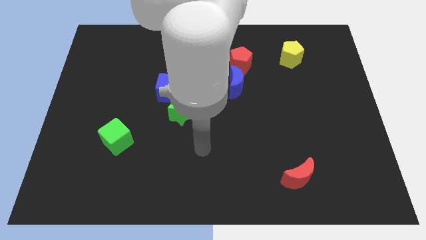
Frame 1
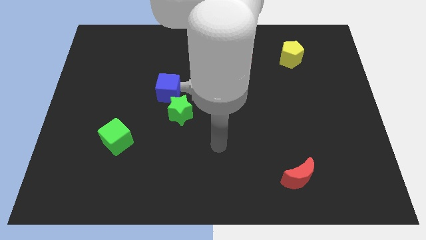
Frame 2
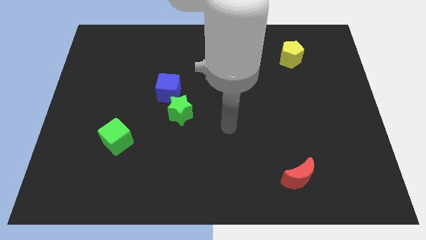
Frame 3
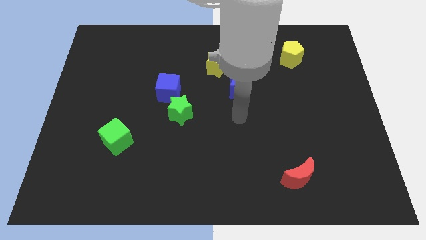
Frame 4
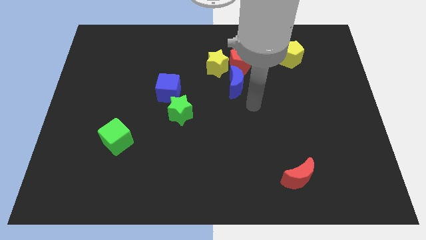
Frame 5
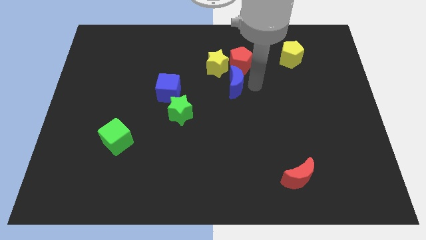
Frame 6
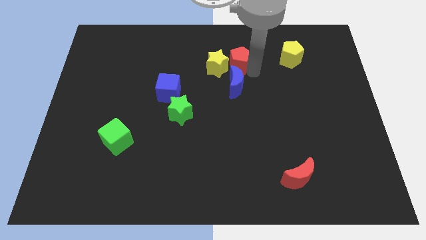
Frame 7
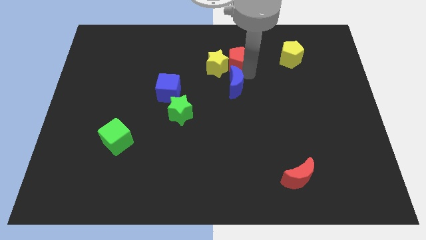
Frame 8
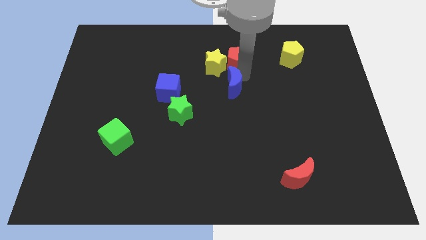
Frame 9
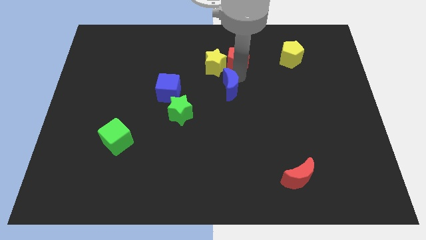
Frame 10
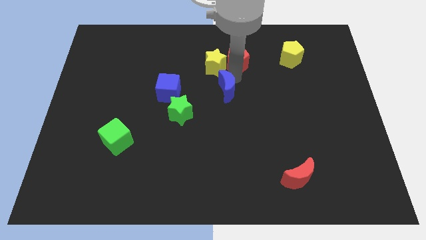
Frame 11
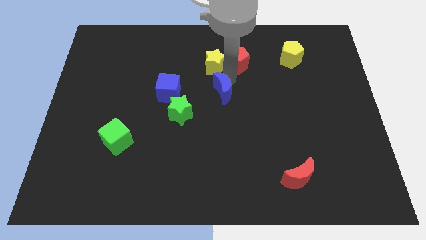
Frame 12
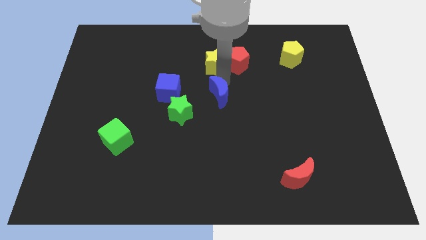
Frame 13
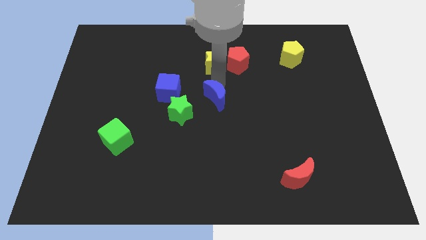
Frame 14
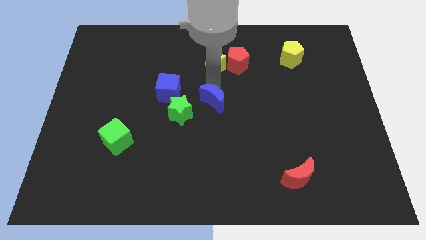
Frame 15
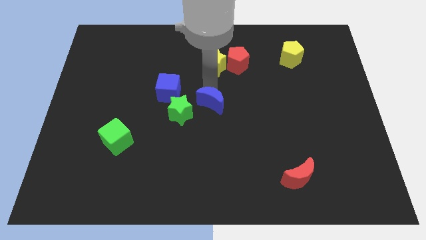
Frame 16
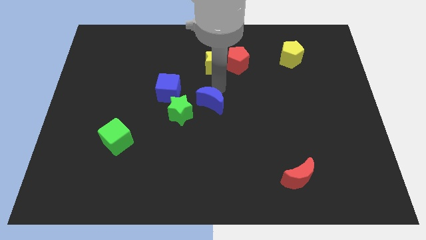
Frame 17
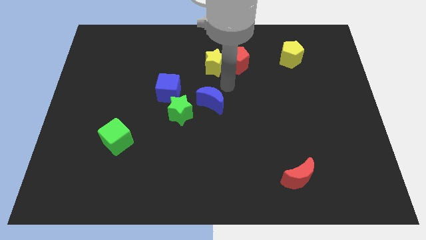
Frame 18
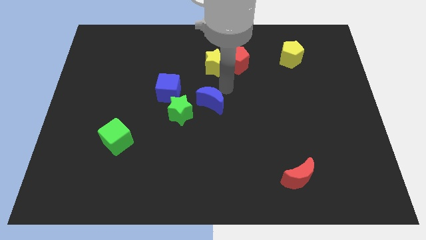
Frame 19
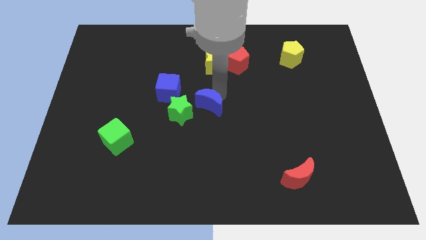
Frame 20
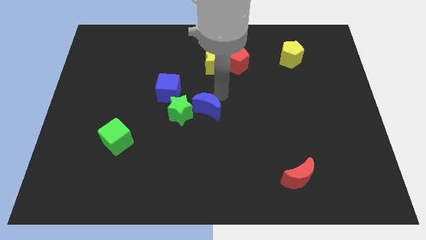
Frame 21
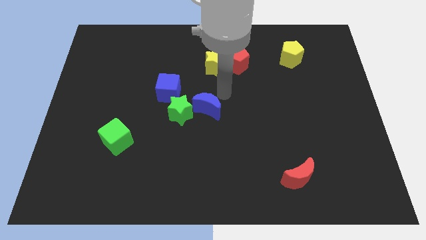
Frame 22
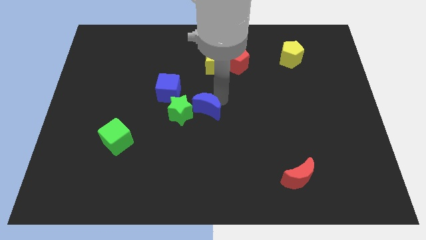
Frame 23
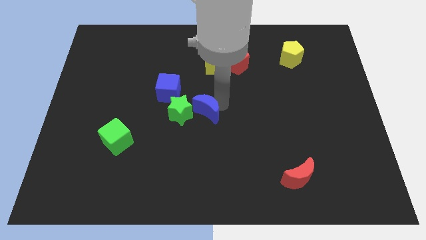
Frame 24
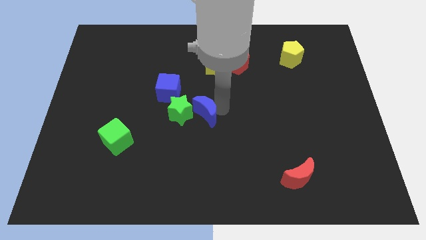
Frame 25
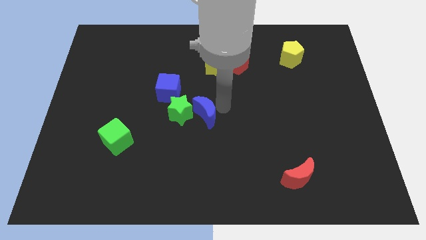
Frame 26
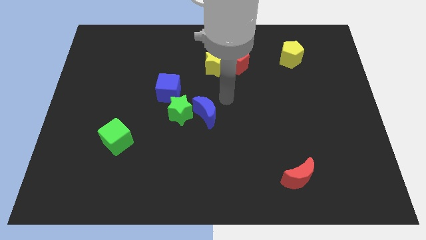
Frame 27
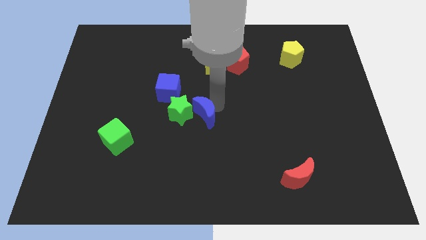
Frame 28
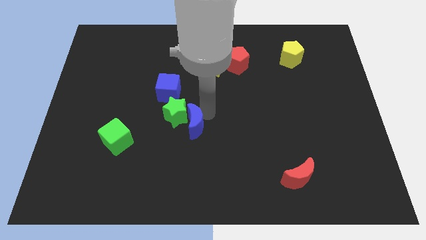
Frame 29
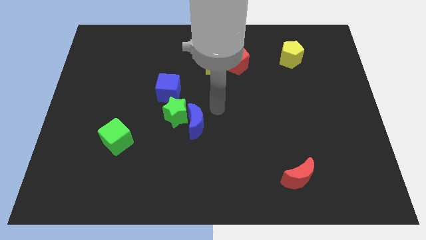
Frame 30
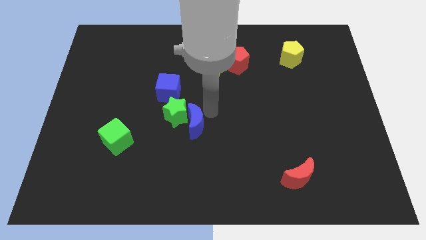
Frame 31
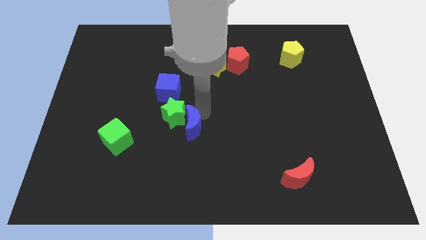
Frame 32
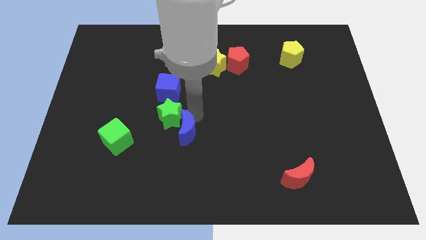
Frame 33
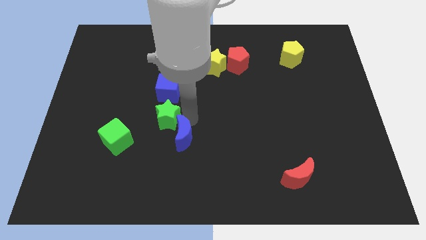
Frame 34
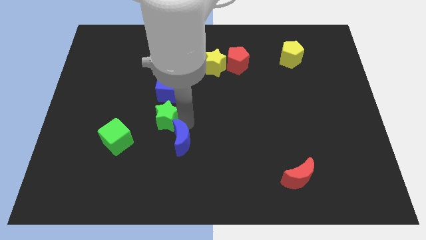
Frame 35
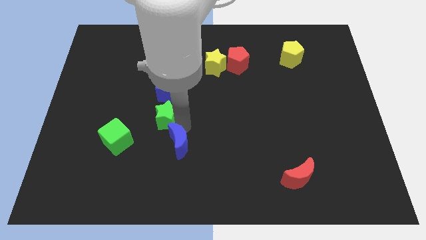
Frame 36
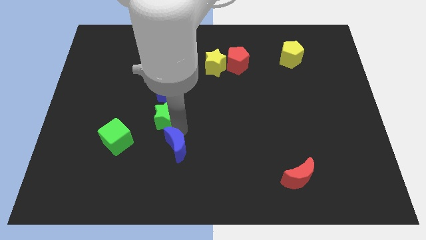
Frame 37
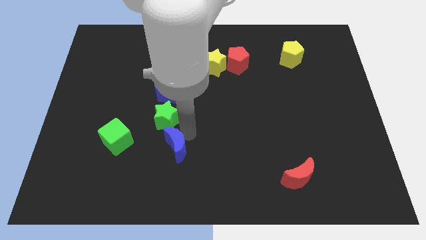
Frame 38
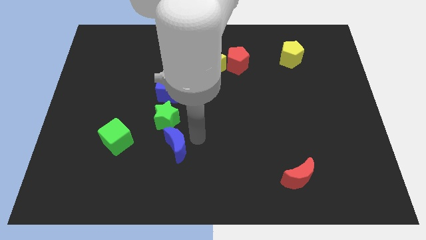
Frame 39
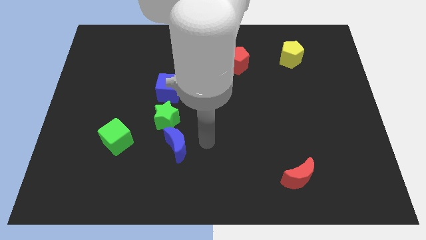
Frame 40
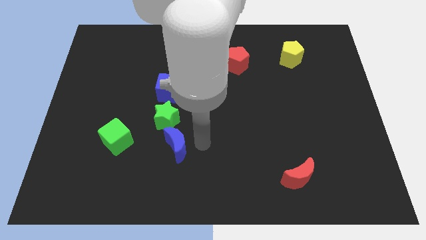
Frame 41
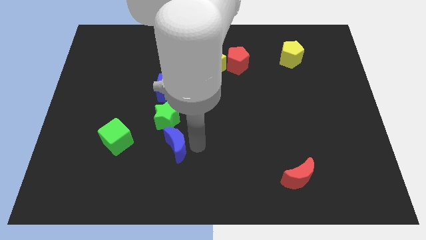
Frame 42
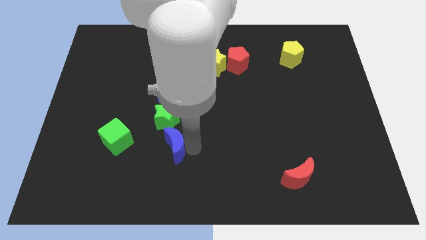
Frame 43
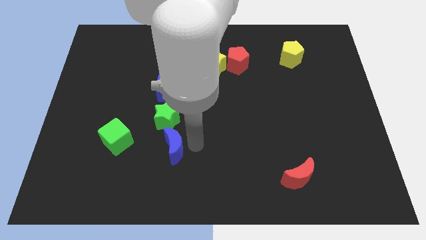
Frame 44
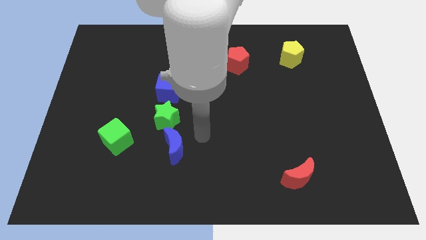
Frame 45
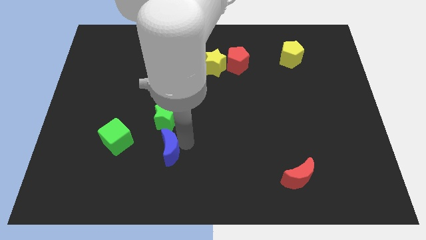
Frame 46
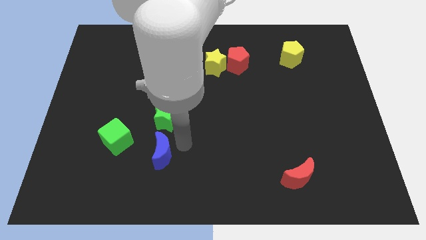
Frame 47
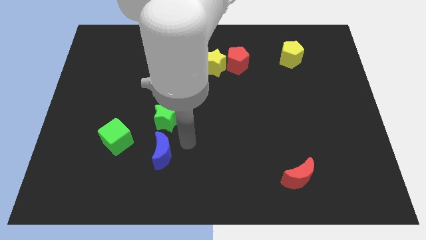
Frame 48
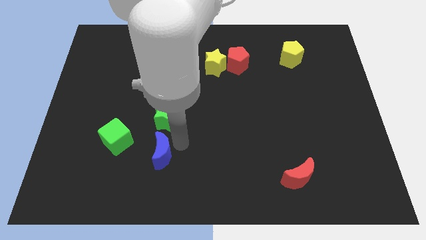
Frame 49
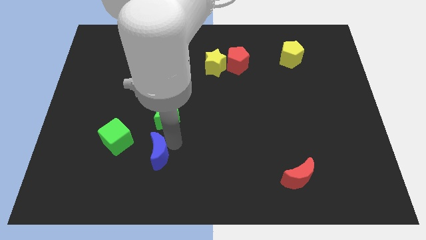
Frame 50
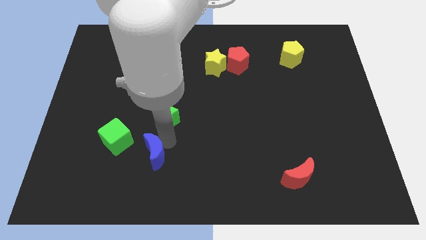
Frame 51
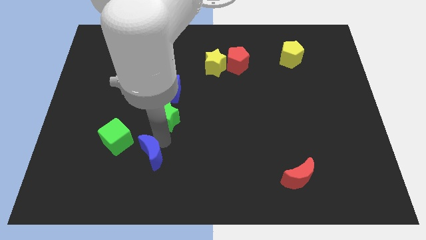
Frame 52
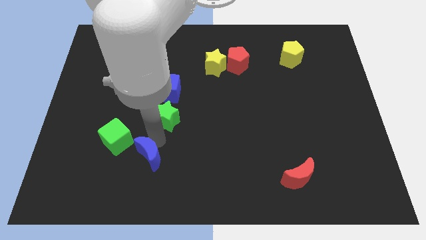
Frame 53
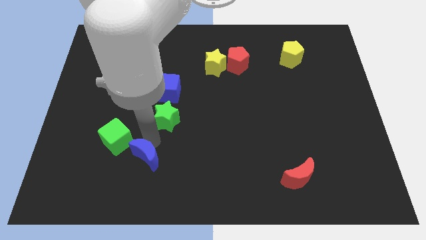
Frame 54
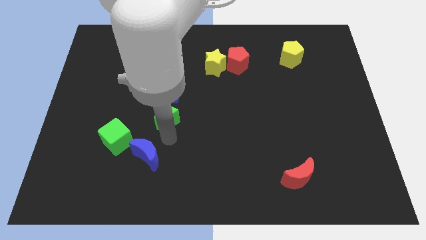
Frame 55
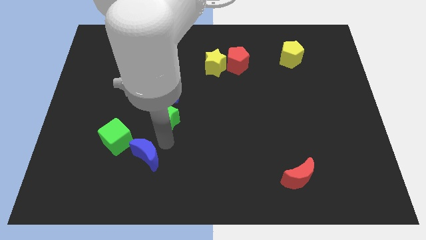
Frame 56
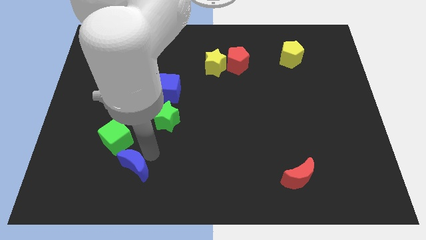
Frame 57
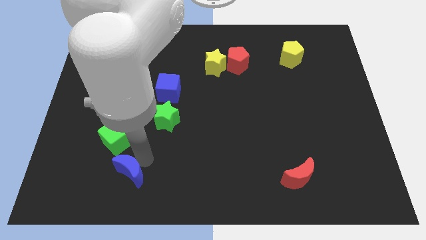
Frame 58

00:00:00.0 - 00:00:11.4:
put the blue moon to the bottom of the green cube

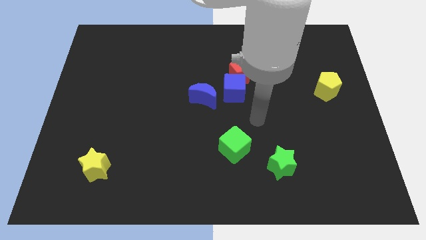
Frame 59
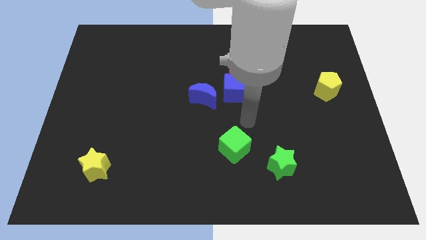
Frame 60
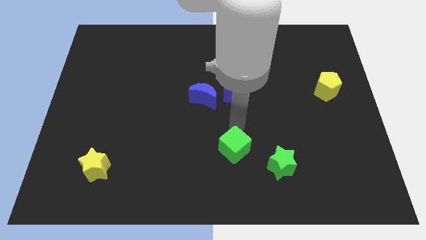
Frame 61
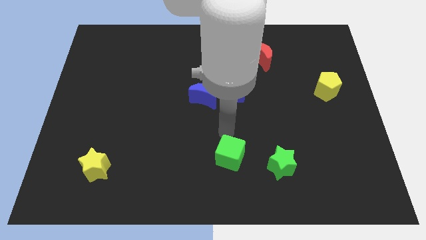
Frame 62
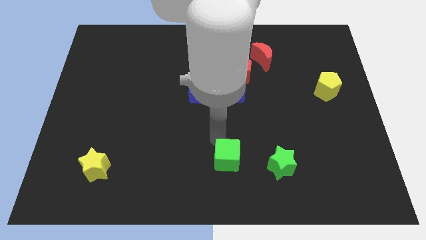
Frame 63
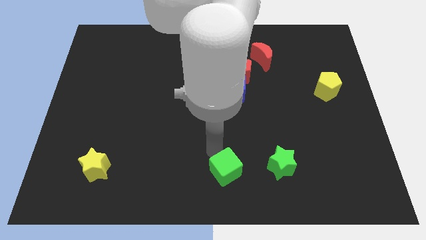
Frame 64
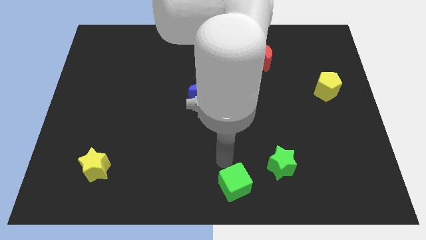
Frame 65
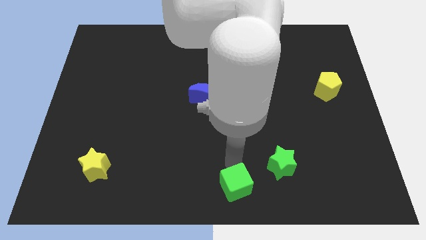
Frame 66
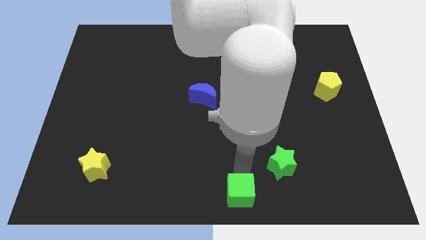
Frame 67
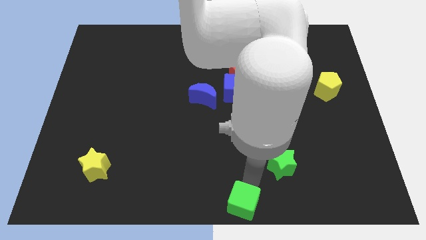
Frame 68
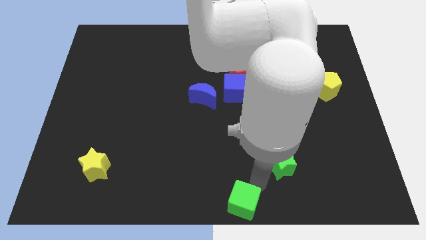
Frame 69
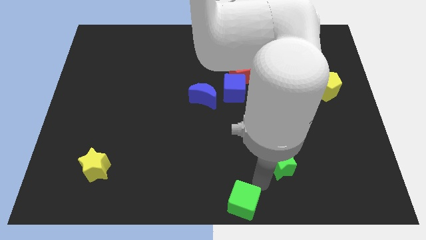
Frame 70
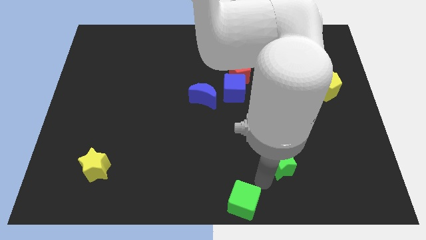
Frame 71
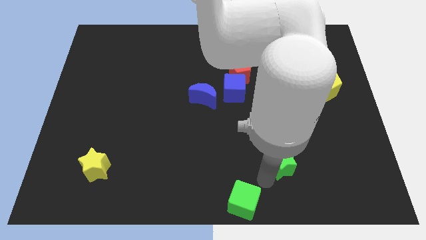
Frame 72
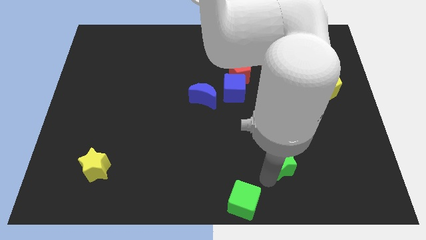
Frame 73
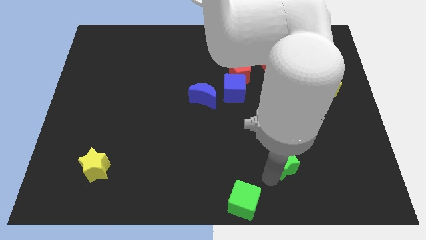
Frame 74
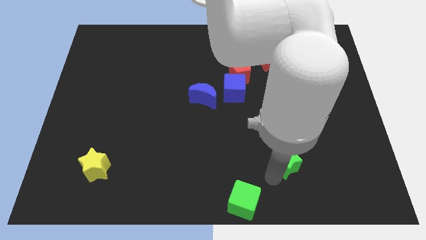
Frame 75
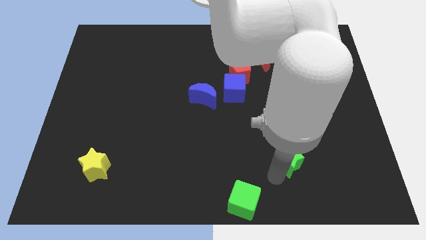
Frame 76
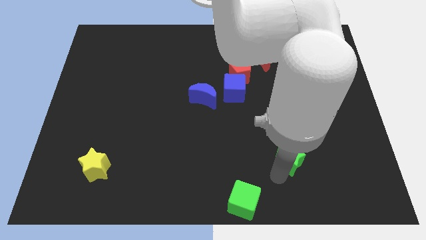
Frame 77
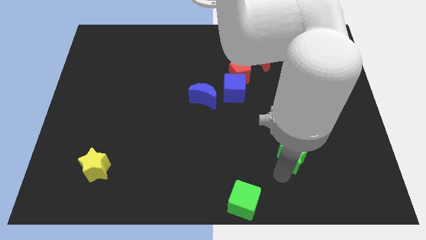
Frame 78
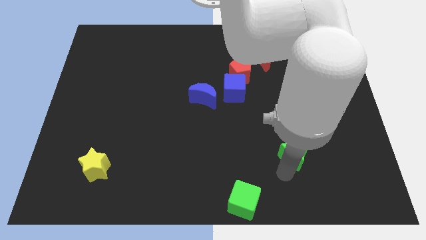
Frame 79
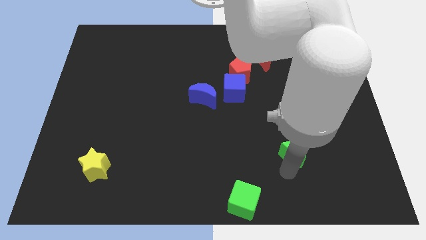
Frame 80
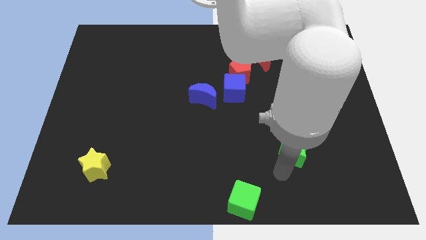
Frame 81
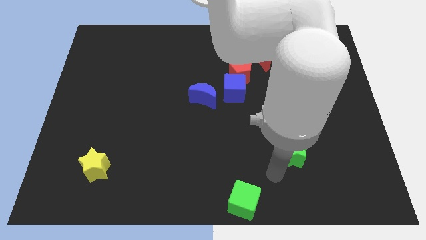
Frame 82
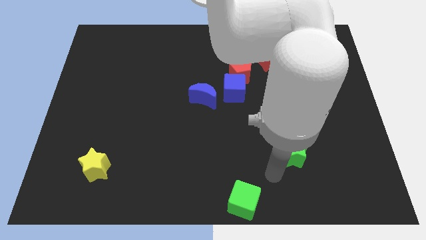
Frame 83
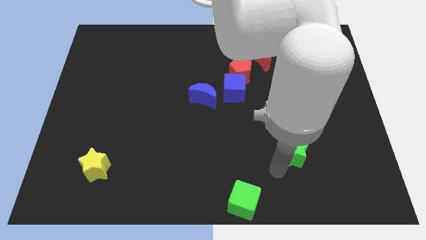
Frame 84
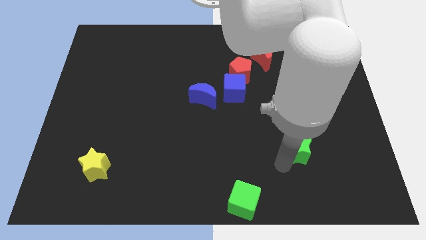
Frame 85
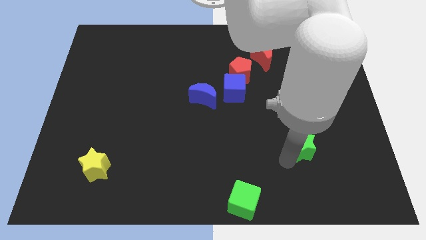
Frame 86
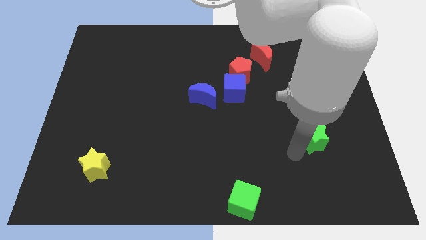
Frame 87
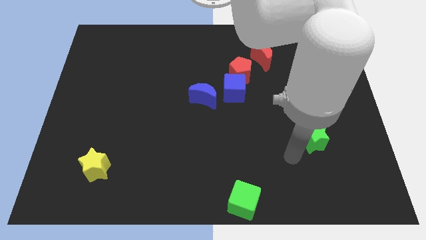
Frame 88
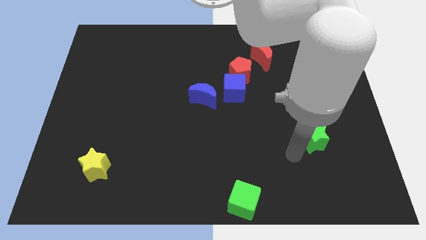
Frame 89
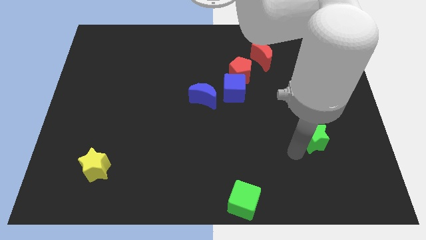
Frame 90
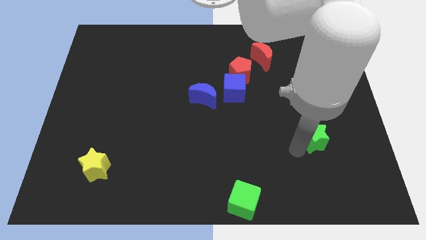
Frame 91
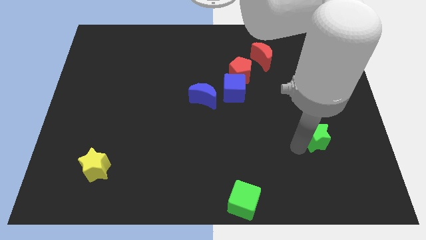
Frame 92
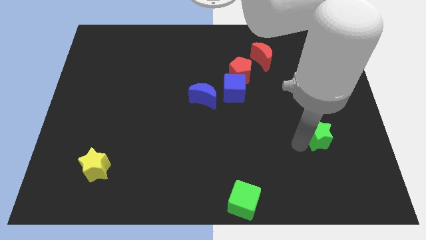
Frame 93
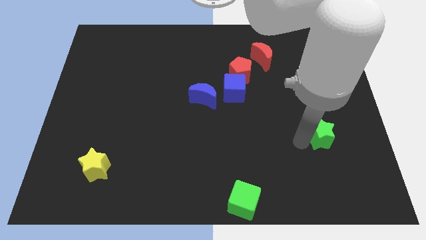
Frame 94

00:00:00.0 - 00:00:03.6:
slide the green star to the bottom of the yellow pentagon
